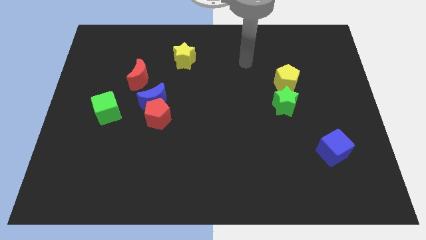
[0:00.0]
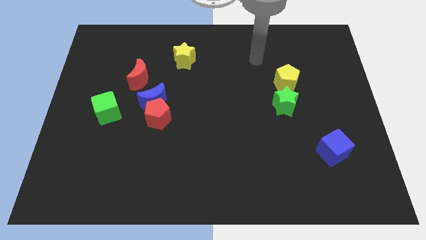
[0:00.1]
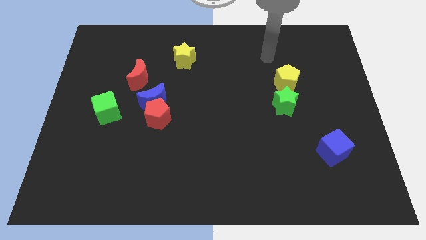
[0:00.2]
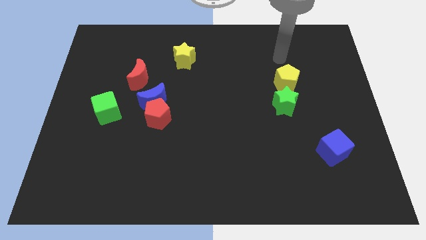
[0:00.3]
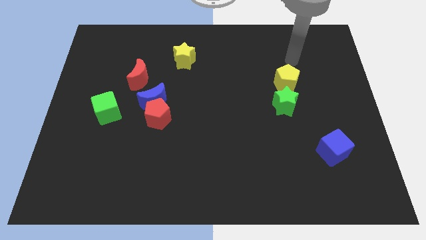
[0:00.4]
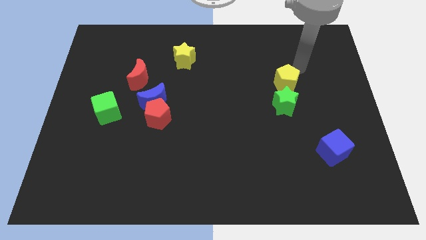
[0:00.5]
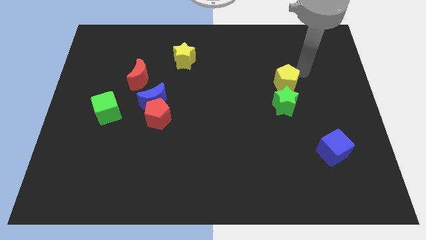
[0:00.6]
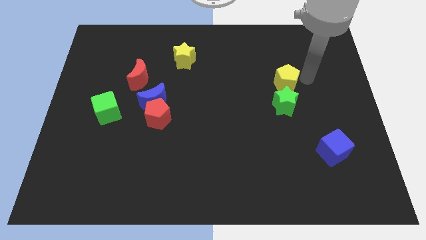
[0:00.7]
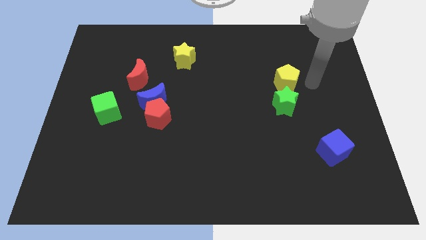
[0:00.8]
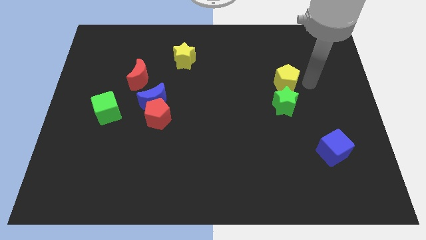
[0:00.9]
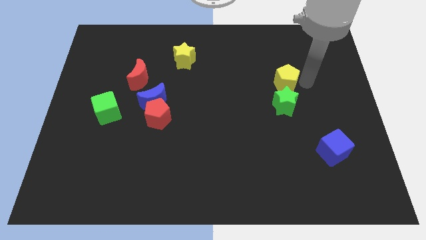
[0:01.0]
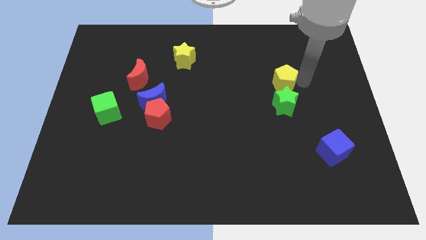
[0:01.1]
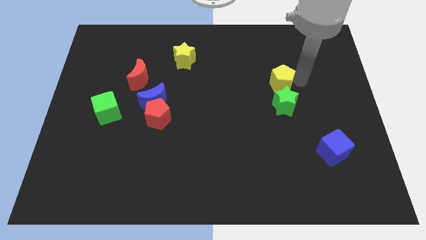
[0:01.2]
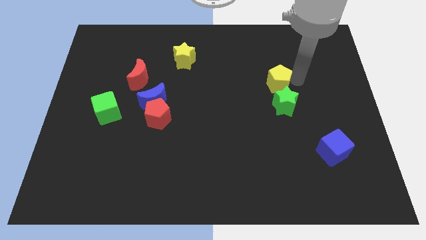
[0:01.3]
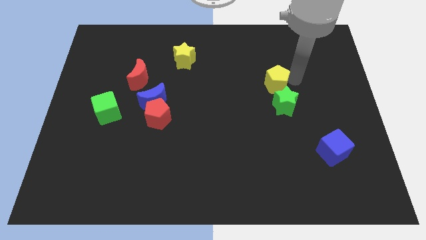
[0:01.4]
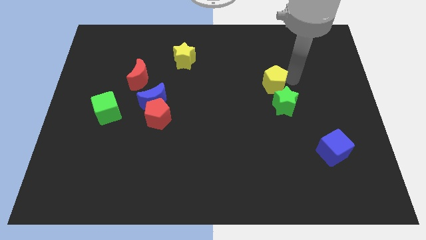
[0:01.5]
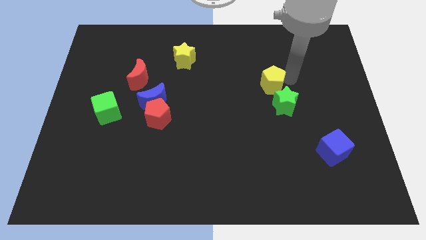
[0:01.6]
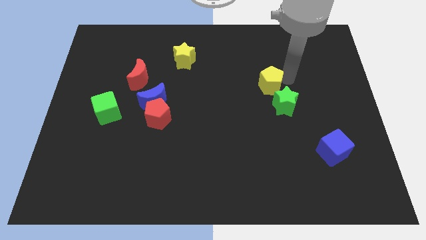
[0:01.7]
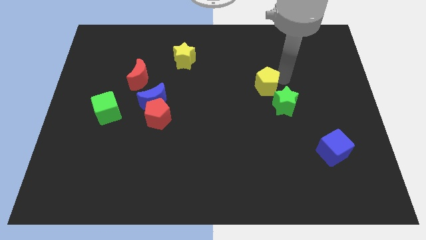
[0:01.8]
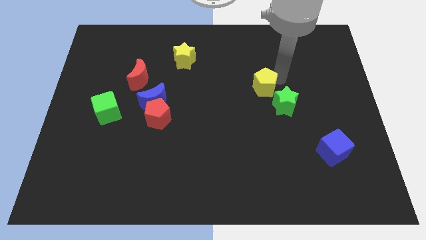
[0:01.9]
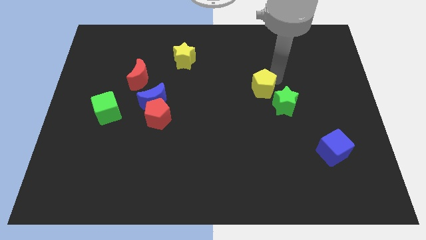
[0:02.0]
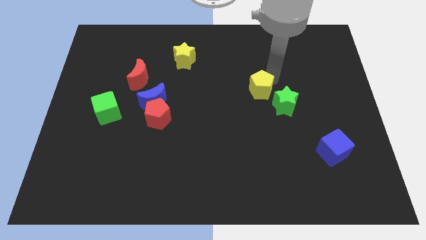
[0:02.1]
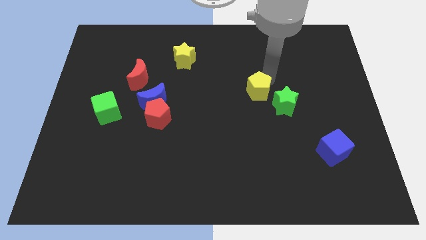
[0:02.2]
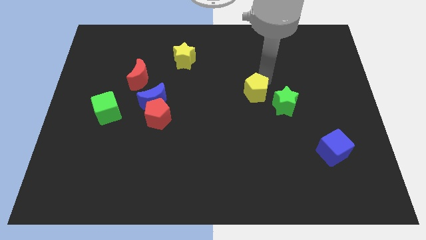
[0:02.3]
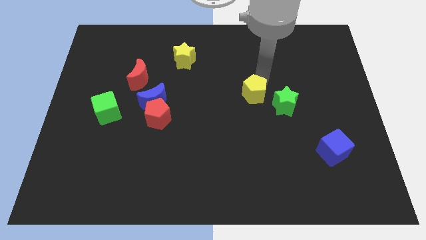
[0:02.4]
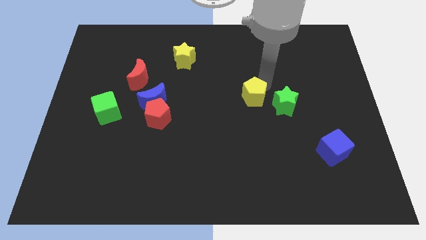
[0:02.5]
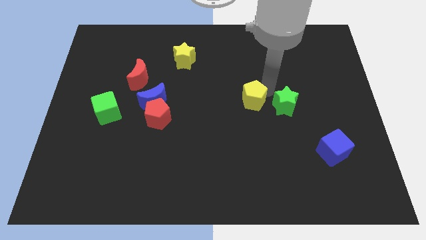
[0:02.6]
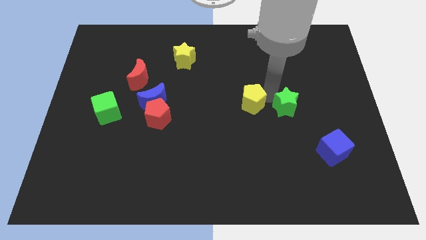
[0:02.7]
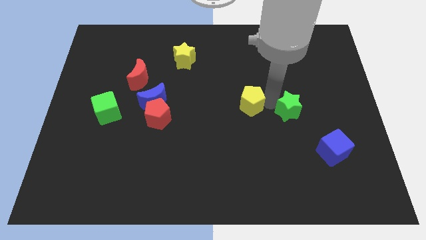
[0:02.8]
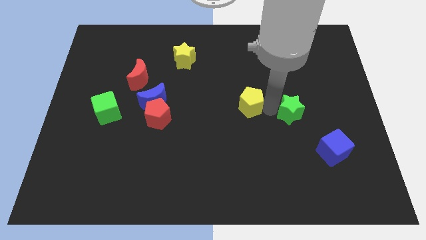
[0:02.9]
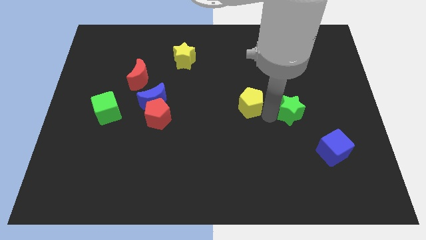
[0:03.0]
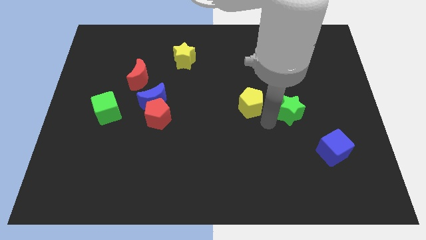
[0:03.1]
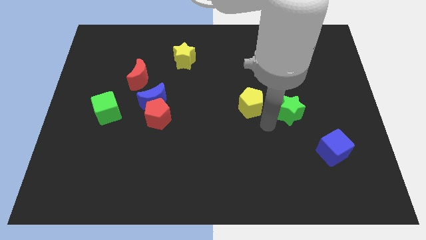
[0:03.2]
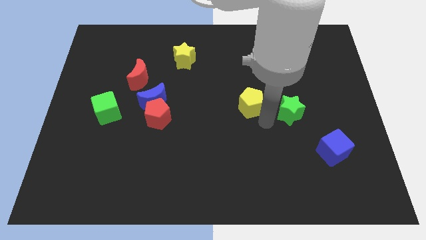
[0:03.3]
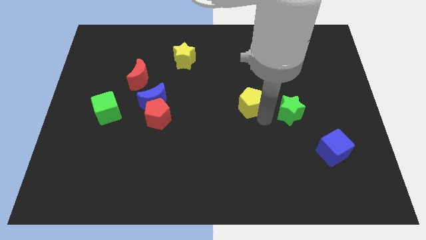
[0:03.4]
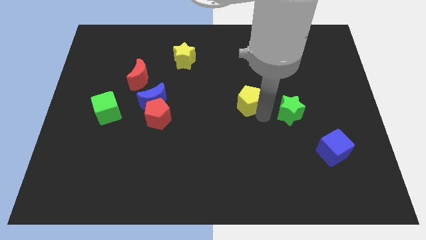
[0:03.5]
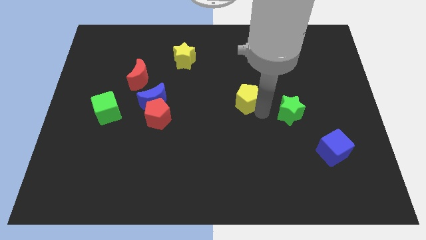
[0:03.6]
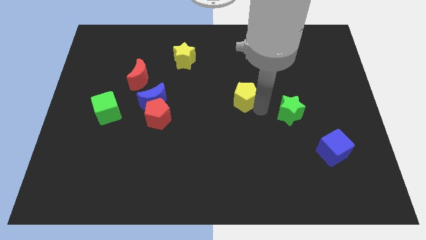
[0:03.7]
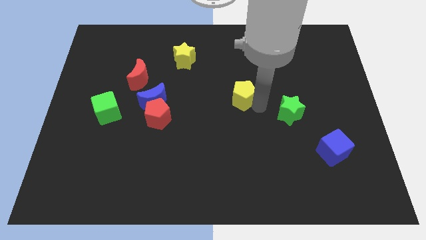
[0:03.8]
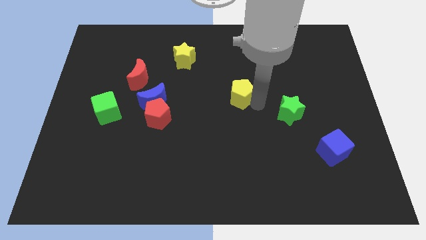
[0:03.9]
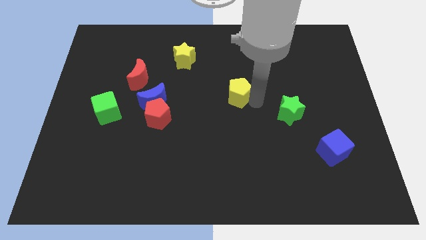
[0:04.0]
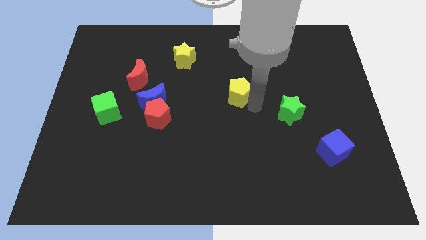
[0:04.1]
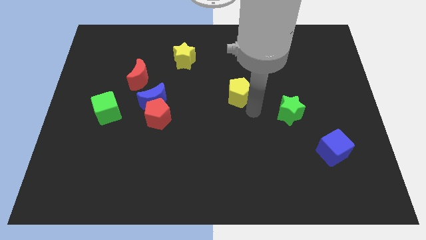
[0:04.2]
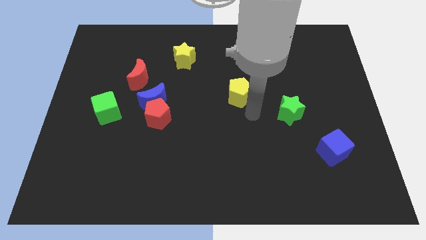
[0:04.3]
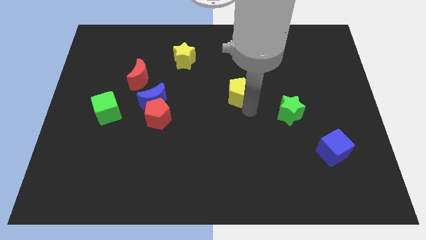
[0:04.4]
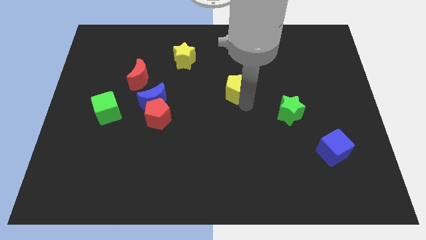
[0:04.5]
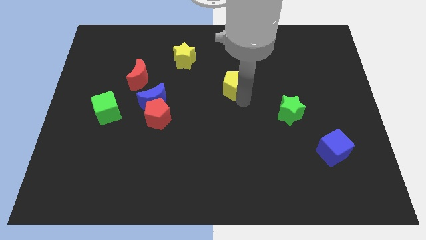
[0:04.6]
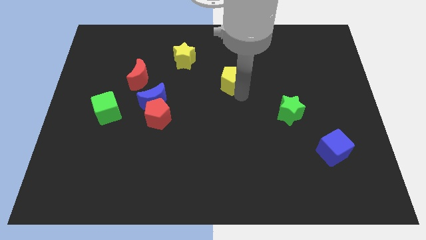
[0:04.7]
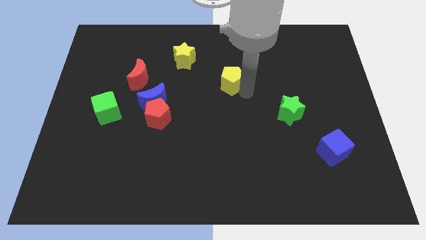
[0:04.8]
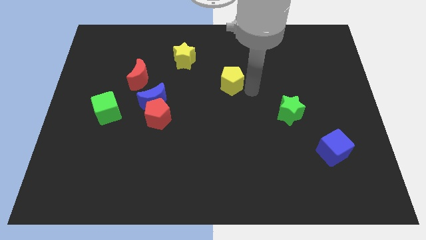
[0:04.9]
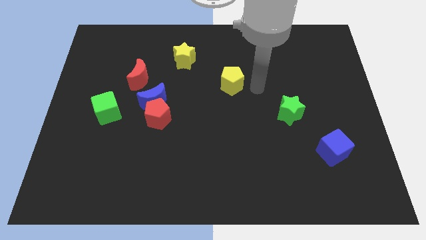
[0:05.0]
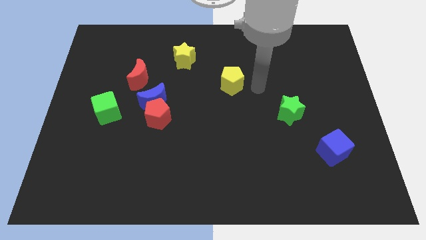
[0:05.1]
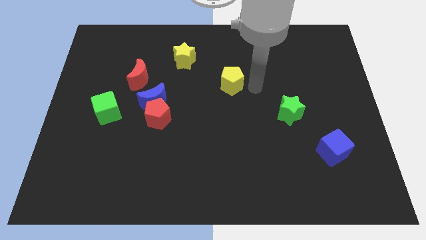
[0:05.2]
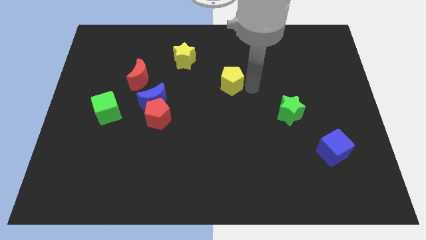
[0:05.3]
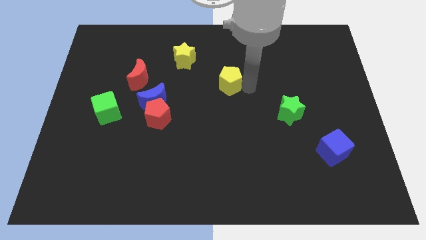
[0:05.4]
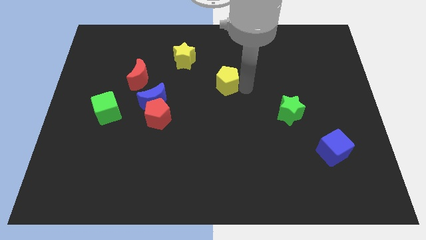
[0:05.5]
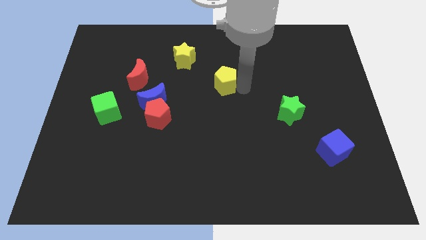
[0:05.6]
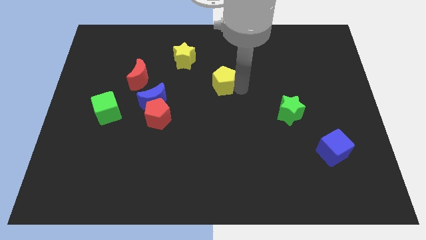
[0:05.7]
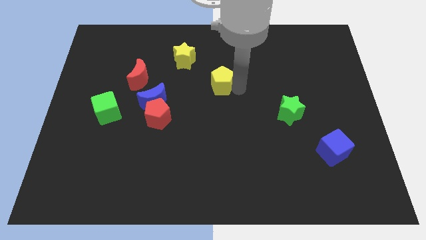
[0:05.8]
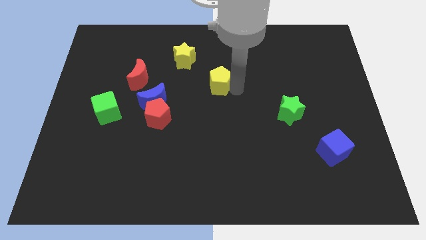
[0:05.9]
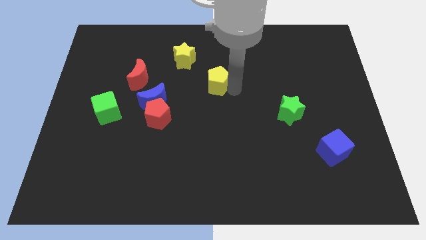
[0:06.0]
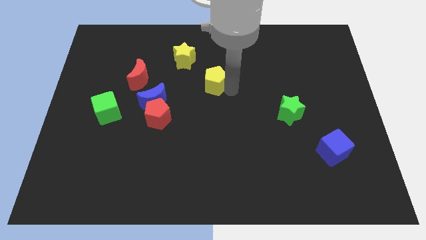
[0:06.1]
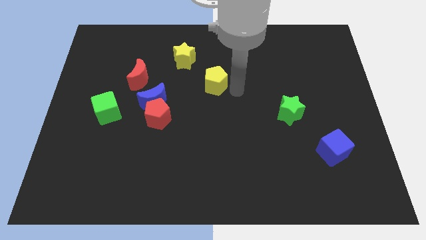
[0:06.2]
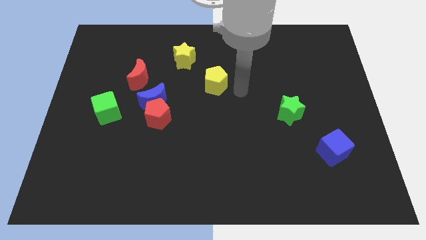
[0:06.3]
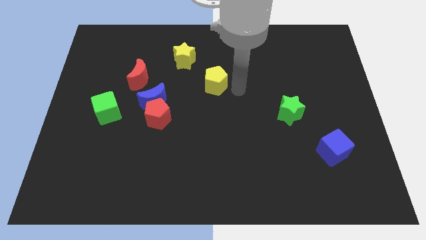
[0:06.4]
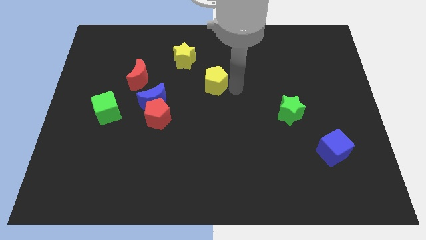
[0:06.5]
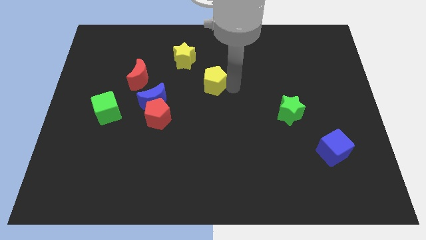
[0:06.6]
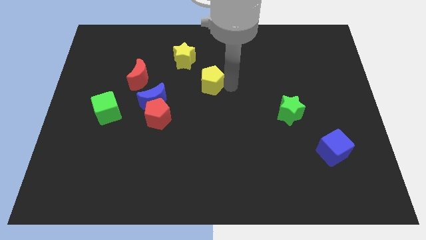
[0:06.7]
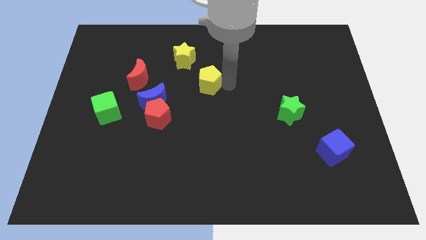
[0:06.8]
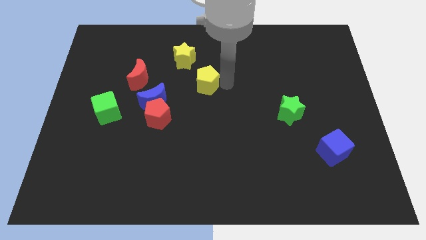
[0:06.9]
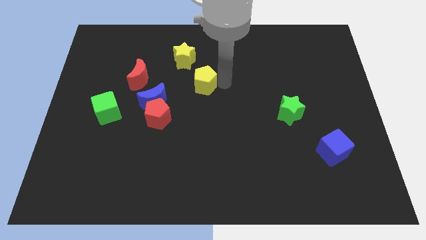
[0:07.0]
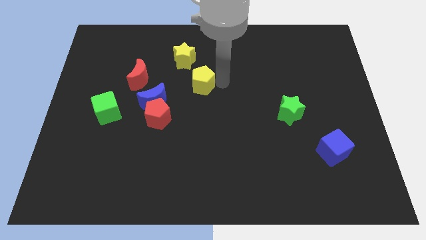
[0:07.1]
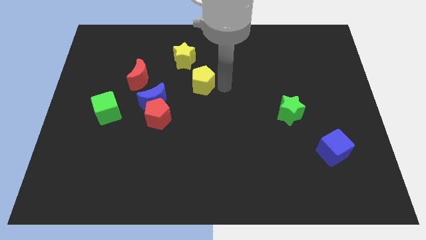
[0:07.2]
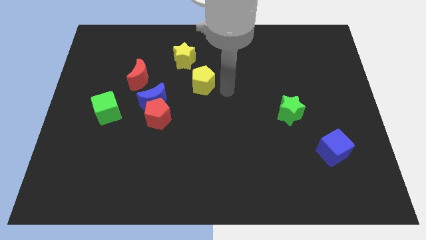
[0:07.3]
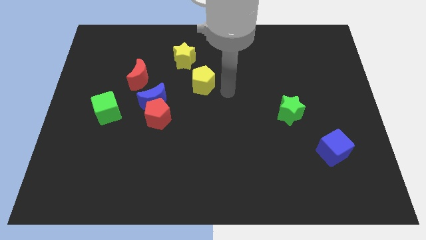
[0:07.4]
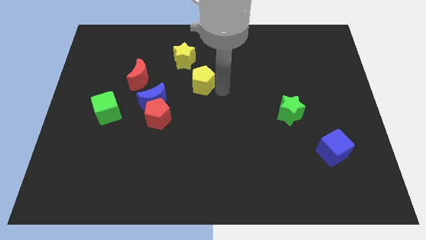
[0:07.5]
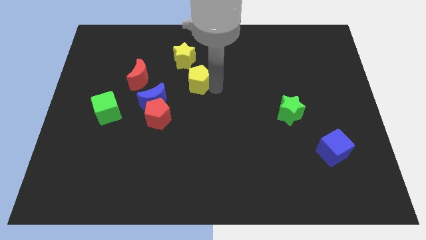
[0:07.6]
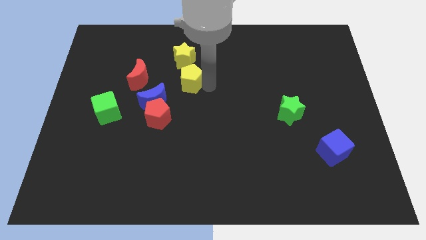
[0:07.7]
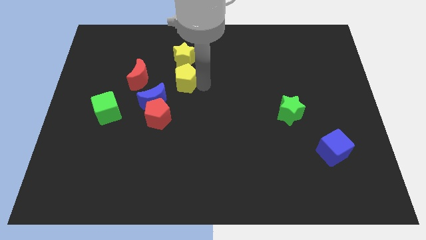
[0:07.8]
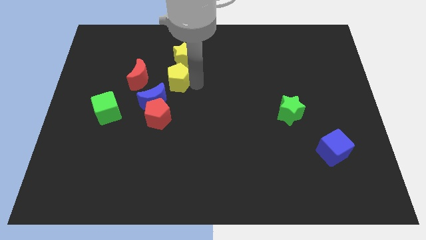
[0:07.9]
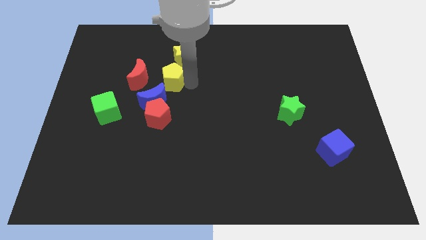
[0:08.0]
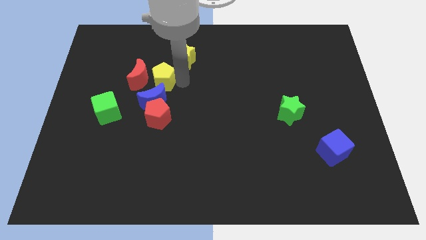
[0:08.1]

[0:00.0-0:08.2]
push the yellow pentagon to the red moon
